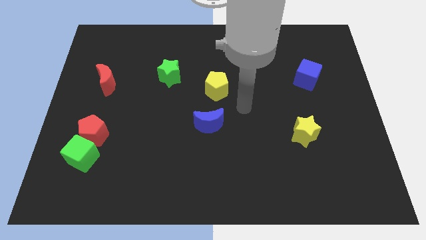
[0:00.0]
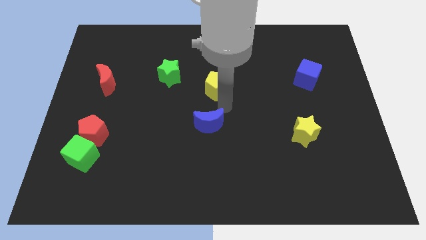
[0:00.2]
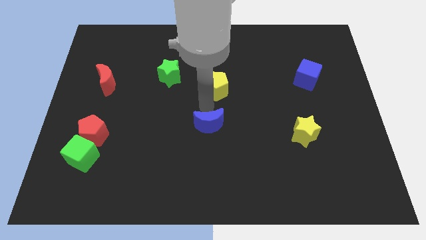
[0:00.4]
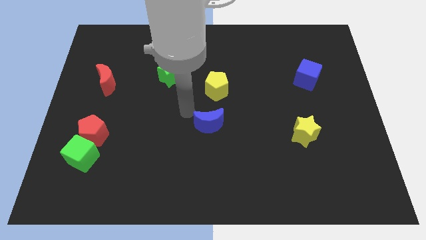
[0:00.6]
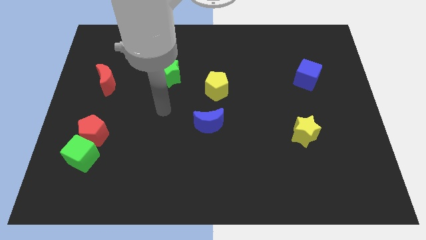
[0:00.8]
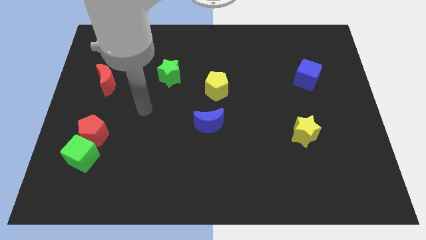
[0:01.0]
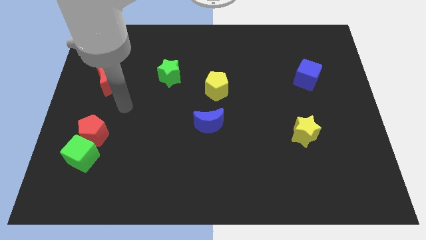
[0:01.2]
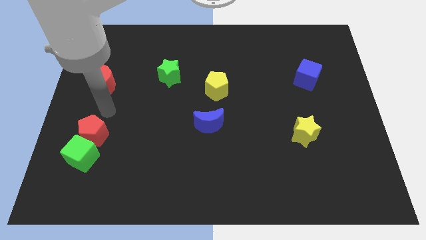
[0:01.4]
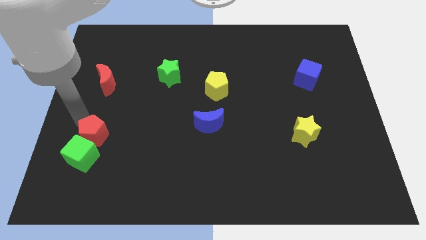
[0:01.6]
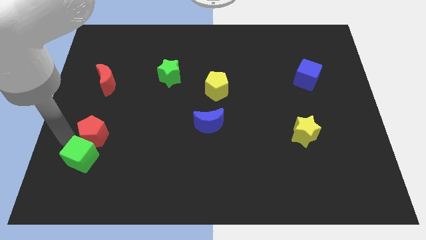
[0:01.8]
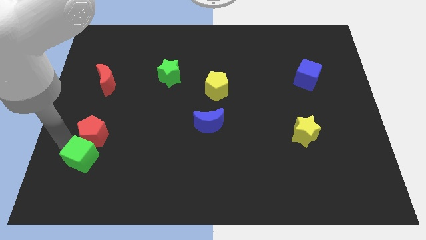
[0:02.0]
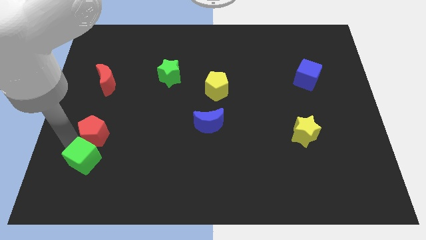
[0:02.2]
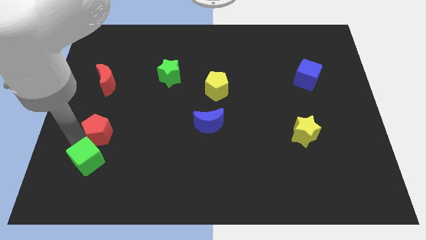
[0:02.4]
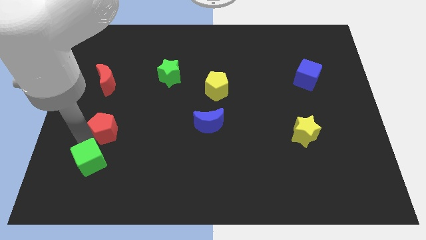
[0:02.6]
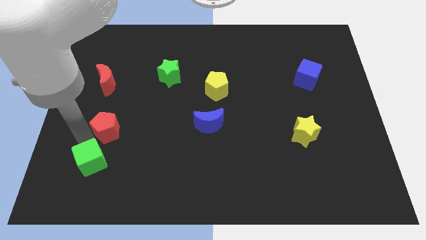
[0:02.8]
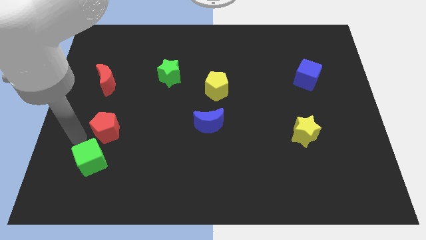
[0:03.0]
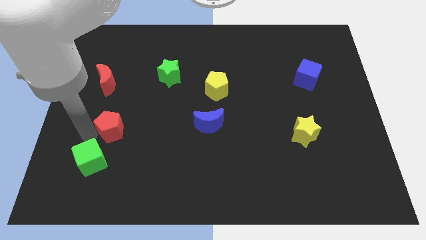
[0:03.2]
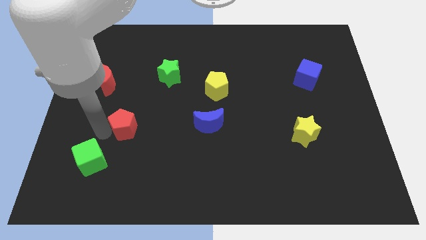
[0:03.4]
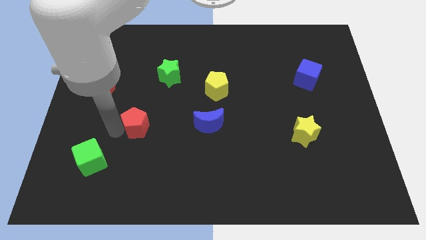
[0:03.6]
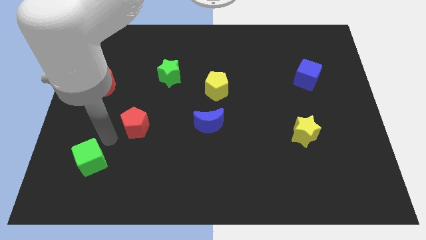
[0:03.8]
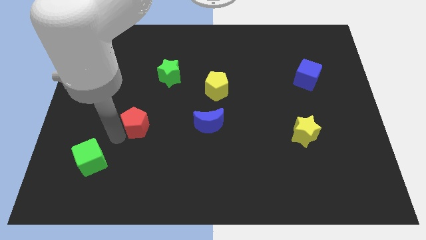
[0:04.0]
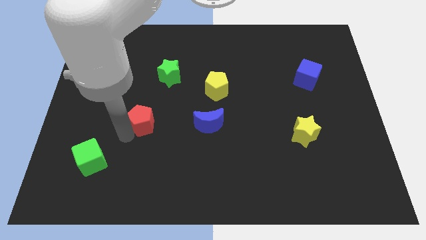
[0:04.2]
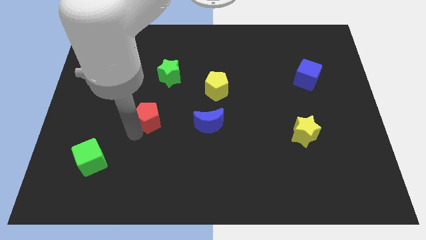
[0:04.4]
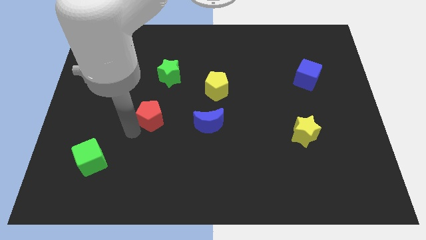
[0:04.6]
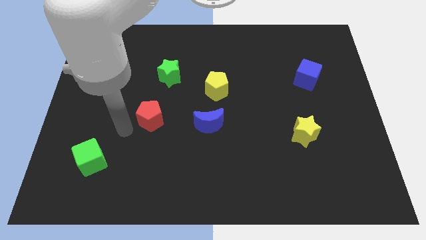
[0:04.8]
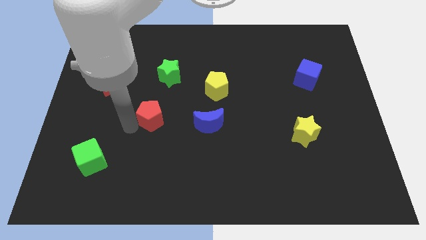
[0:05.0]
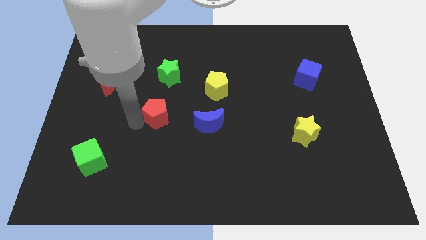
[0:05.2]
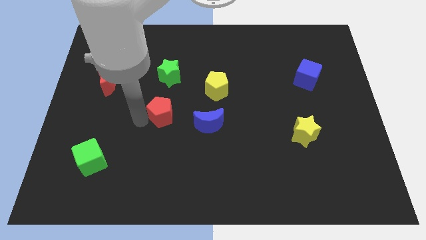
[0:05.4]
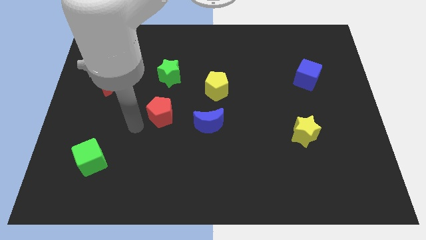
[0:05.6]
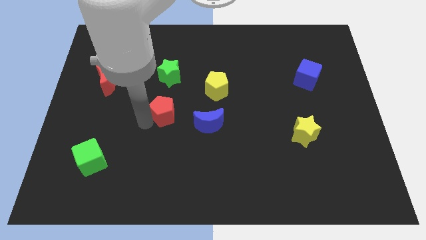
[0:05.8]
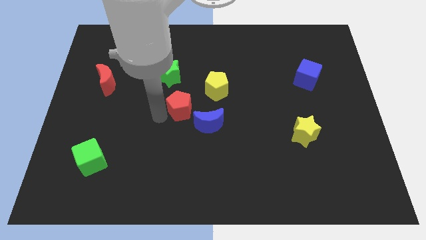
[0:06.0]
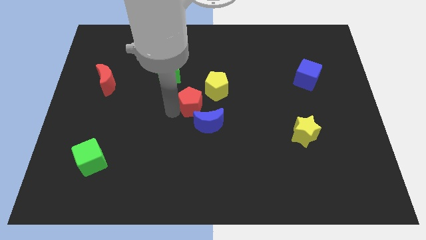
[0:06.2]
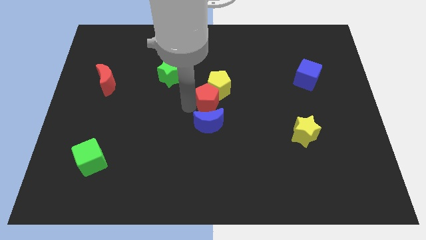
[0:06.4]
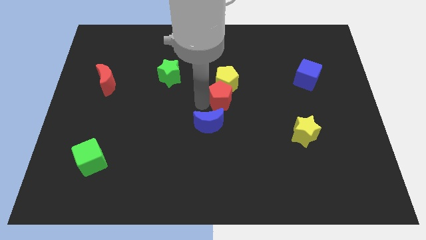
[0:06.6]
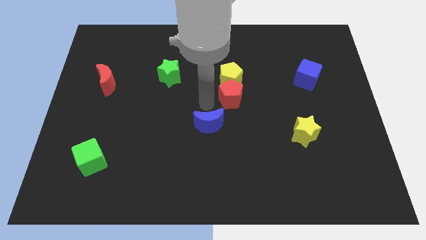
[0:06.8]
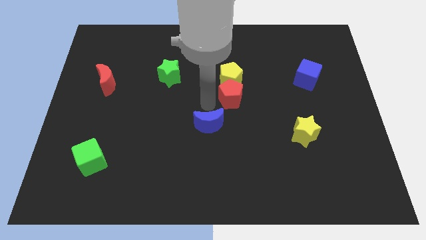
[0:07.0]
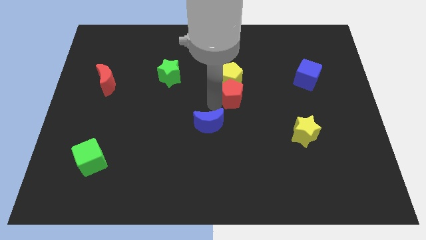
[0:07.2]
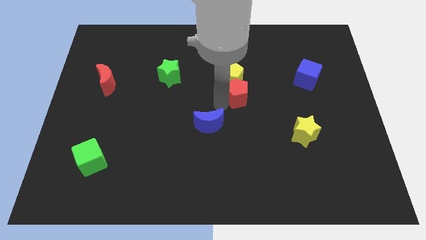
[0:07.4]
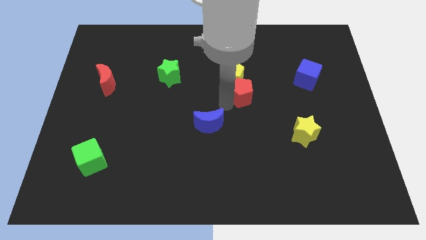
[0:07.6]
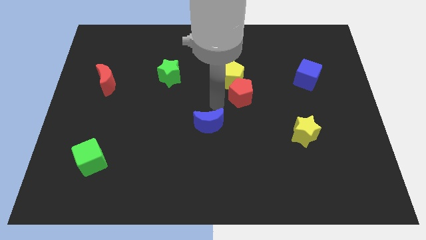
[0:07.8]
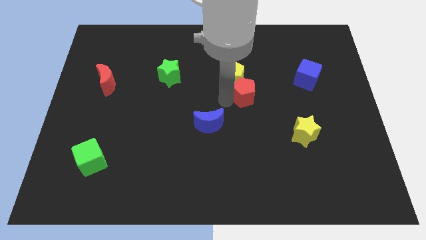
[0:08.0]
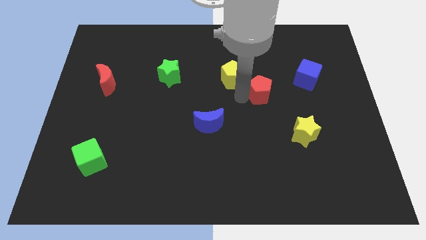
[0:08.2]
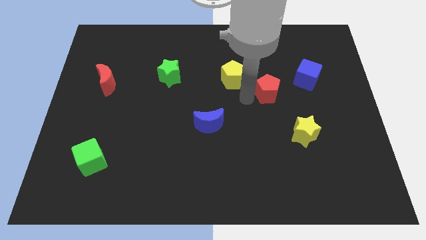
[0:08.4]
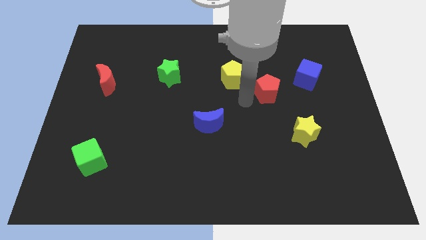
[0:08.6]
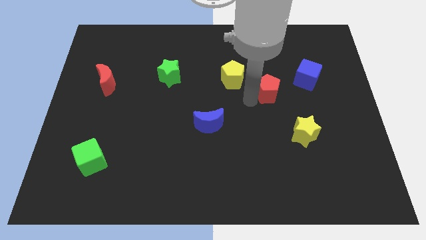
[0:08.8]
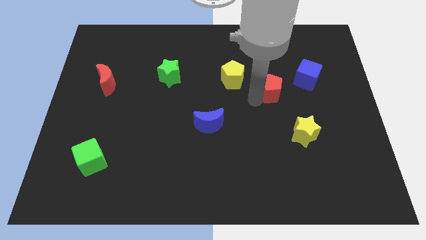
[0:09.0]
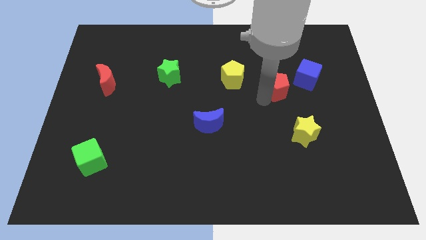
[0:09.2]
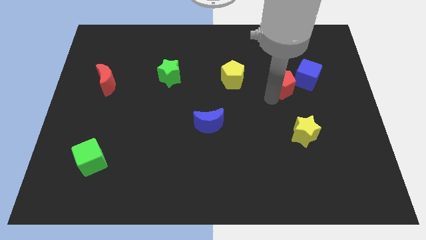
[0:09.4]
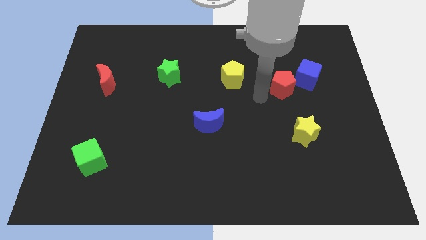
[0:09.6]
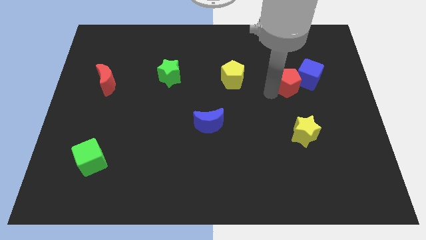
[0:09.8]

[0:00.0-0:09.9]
slide the red pentagon to the blue cube

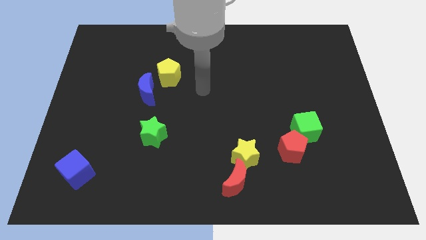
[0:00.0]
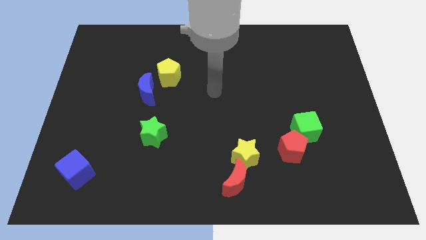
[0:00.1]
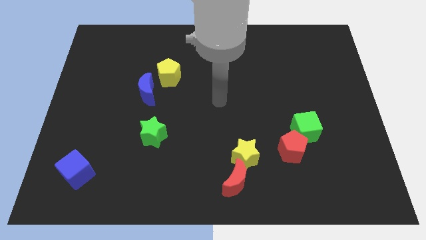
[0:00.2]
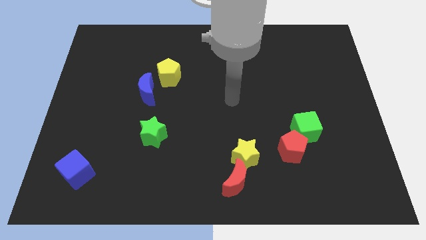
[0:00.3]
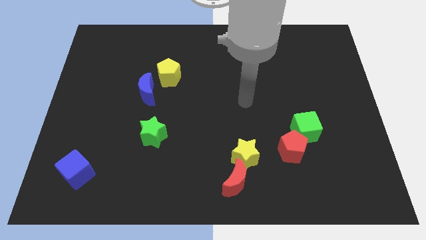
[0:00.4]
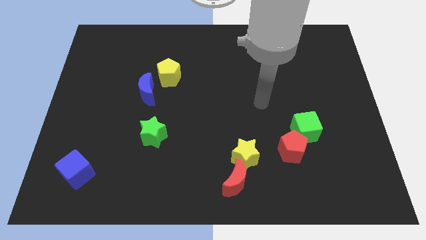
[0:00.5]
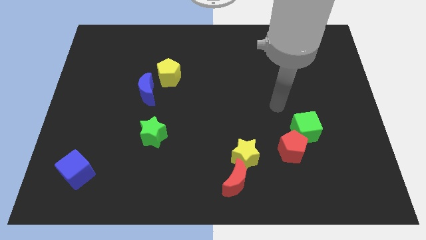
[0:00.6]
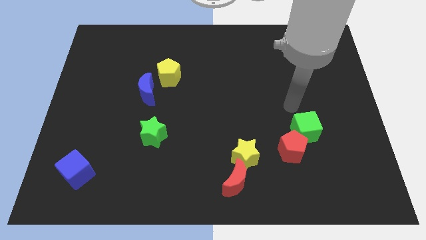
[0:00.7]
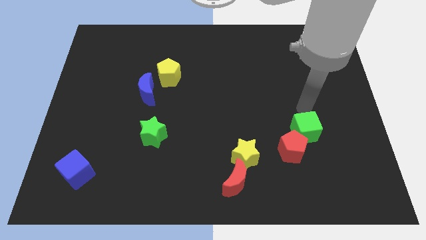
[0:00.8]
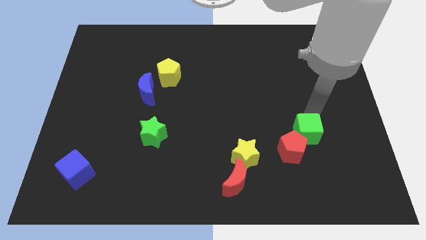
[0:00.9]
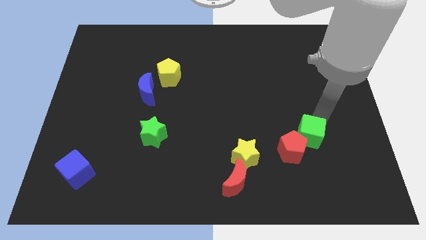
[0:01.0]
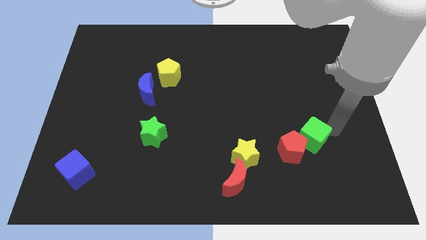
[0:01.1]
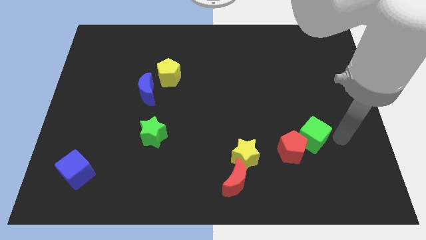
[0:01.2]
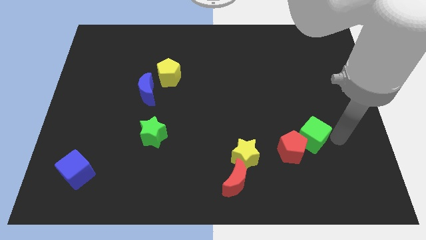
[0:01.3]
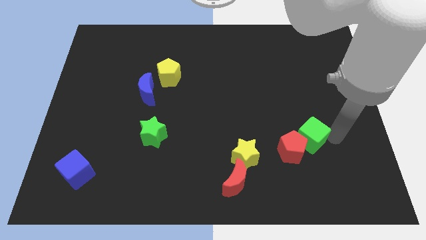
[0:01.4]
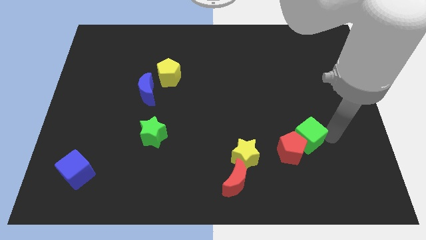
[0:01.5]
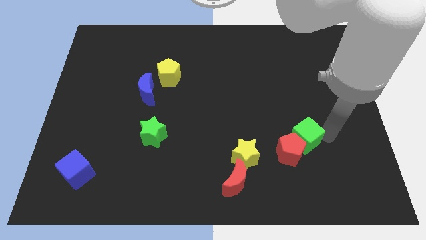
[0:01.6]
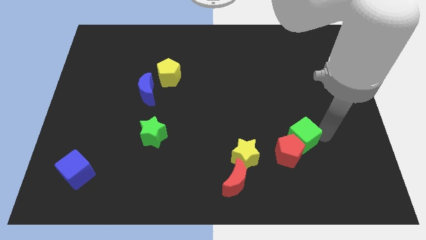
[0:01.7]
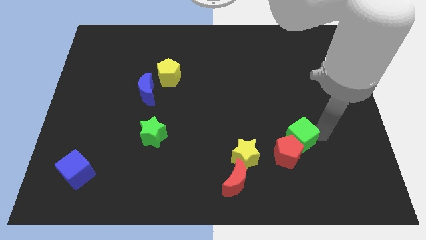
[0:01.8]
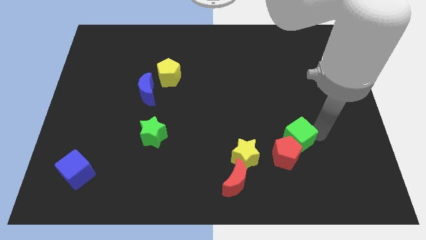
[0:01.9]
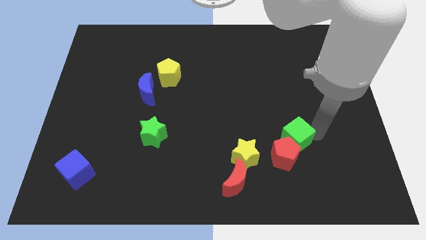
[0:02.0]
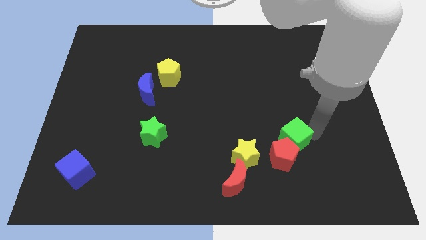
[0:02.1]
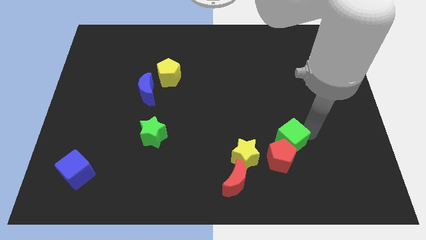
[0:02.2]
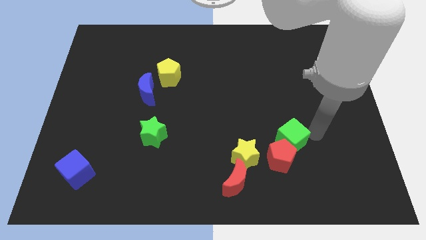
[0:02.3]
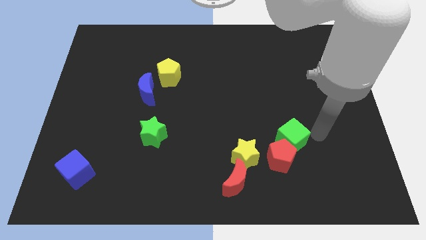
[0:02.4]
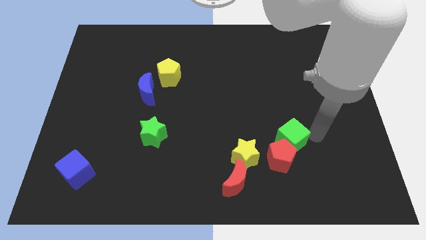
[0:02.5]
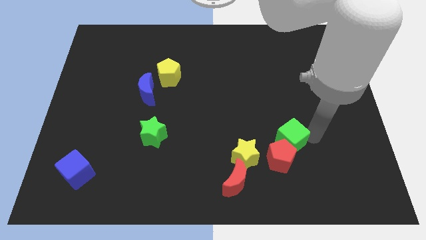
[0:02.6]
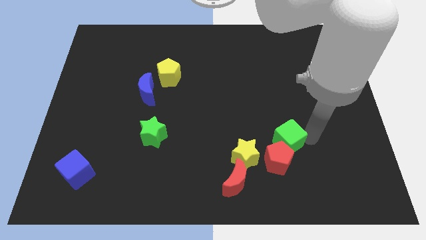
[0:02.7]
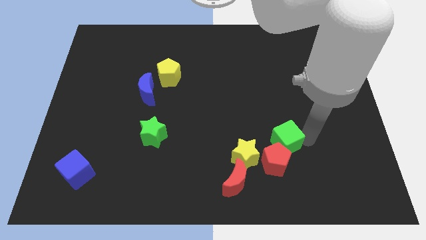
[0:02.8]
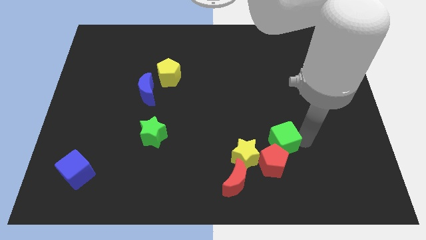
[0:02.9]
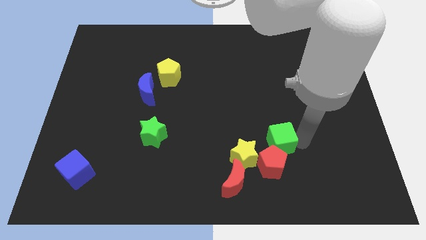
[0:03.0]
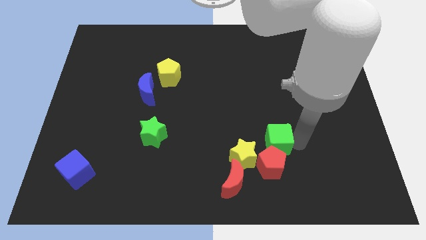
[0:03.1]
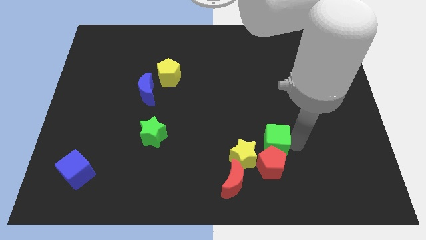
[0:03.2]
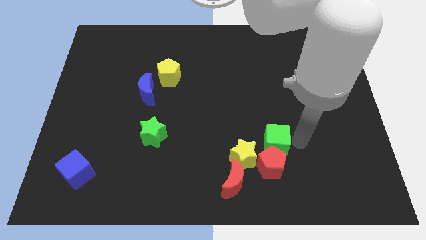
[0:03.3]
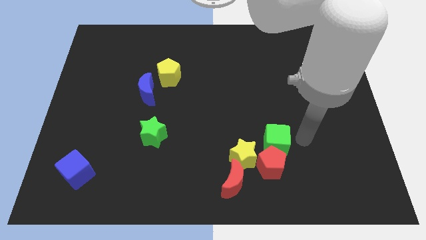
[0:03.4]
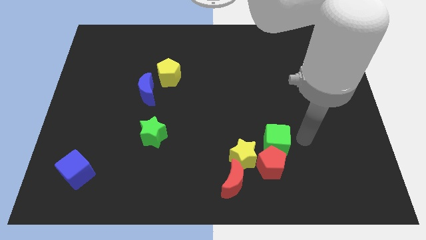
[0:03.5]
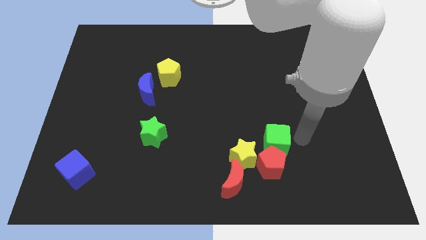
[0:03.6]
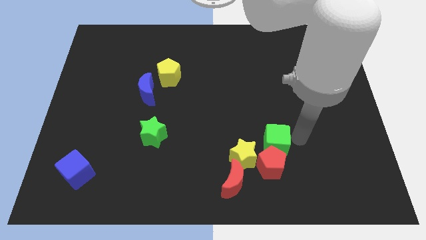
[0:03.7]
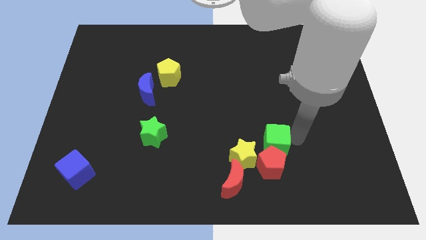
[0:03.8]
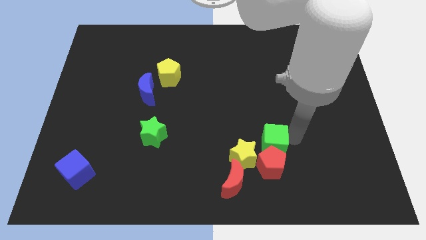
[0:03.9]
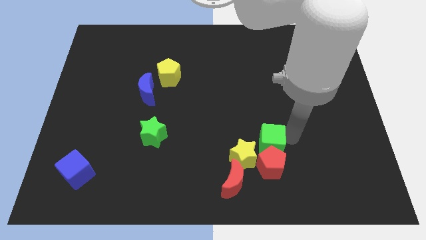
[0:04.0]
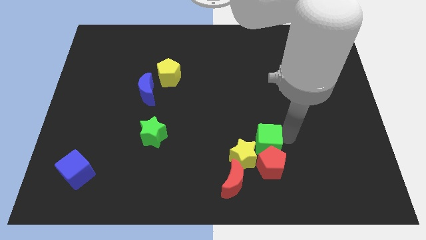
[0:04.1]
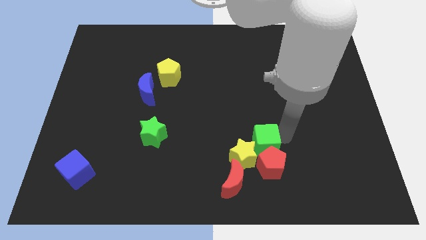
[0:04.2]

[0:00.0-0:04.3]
slide the green cube towards the yellow star
